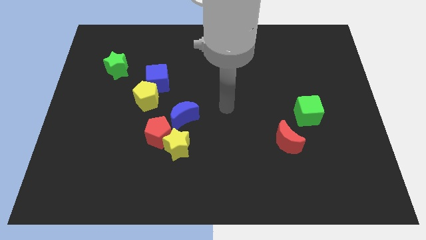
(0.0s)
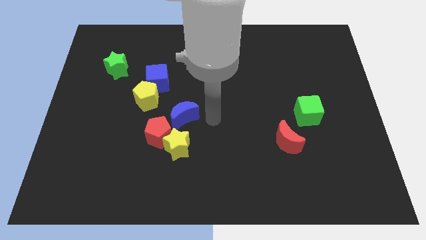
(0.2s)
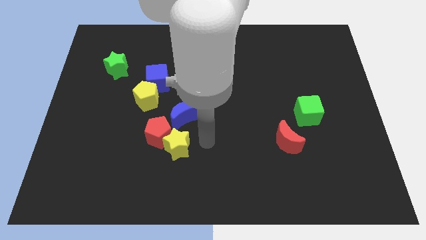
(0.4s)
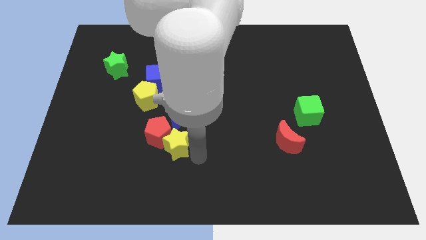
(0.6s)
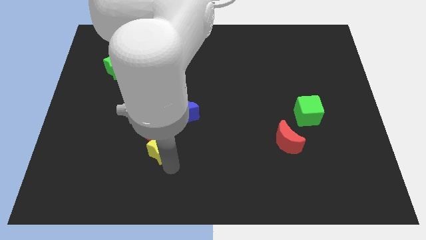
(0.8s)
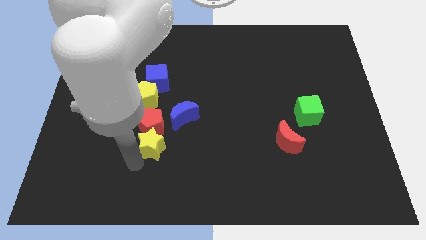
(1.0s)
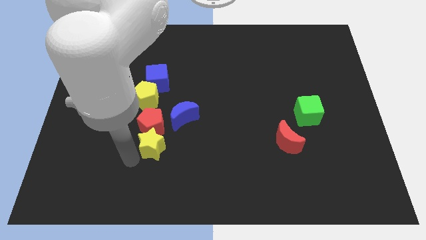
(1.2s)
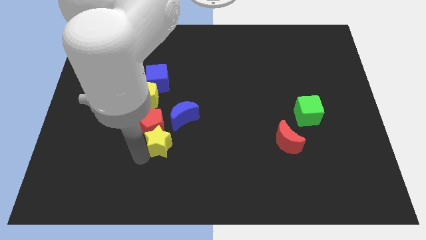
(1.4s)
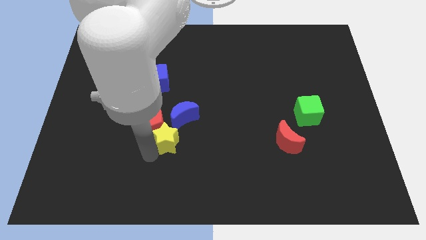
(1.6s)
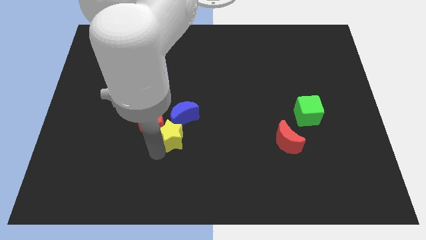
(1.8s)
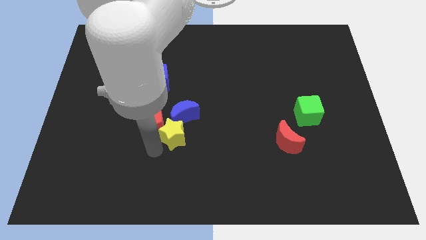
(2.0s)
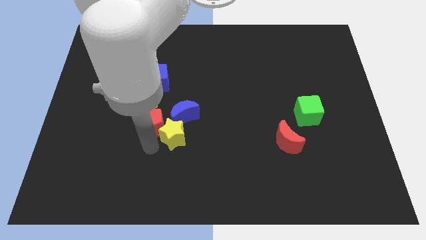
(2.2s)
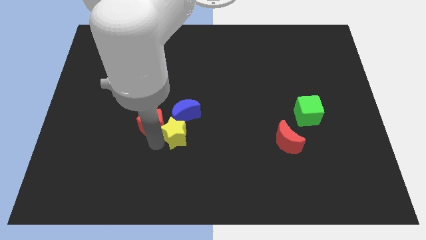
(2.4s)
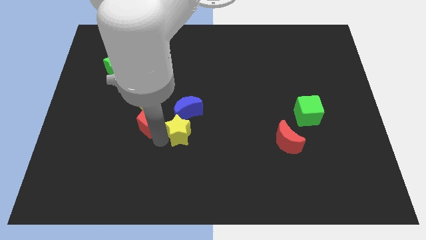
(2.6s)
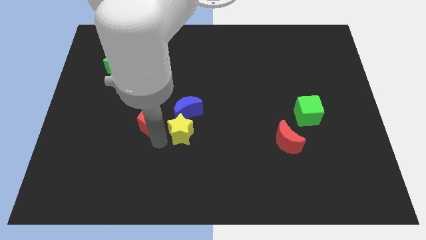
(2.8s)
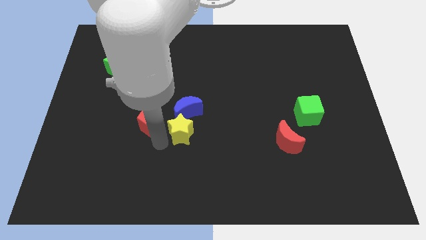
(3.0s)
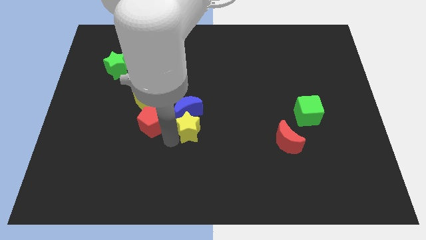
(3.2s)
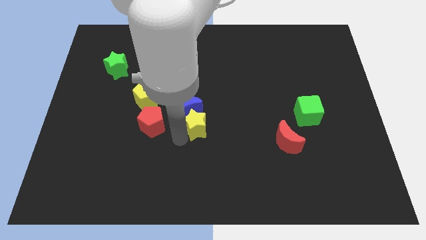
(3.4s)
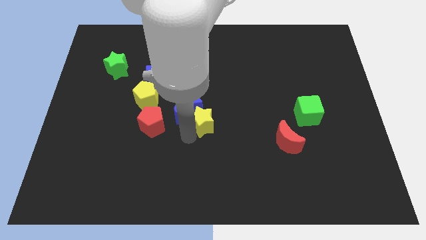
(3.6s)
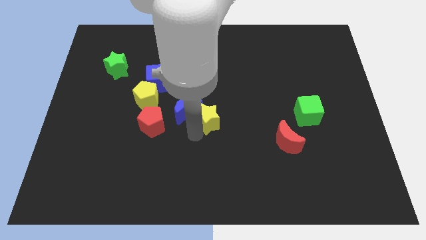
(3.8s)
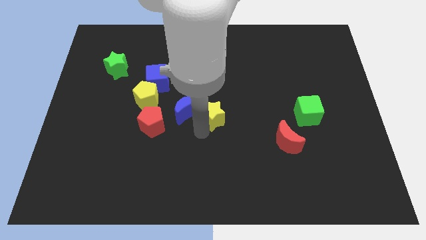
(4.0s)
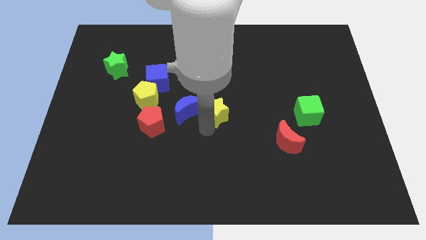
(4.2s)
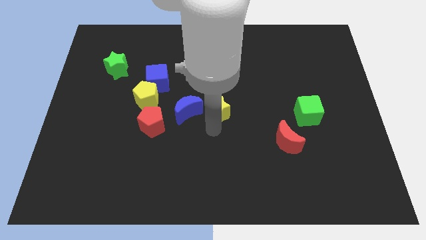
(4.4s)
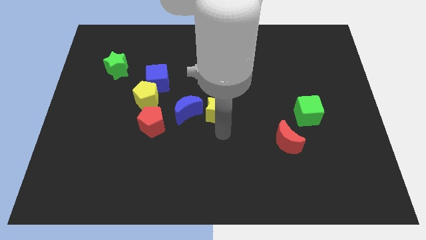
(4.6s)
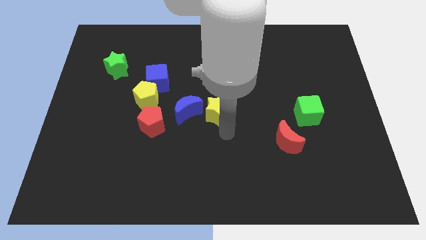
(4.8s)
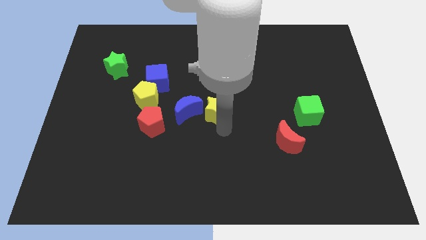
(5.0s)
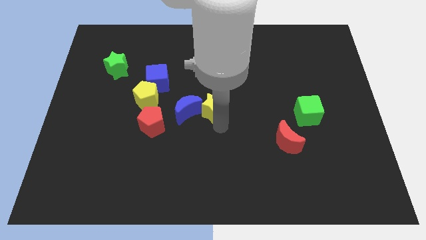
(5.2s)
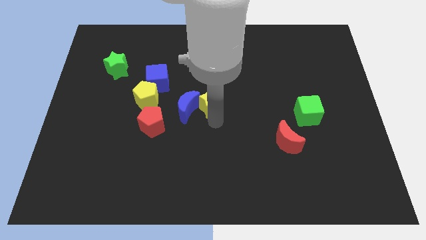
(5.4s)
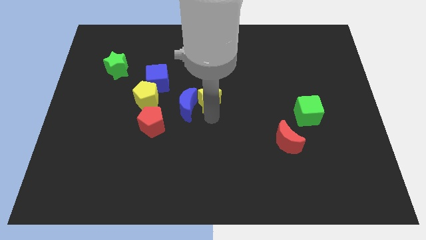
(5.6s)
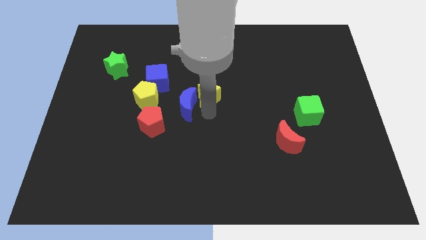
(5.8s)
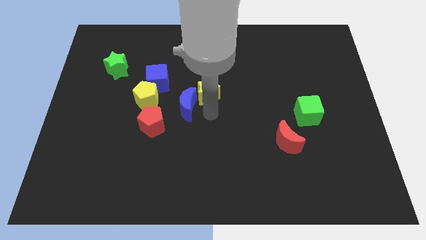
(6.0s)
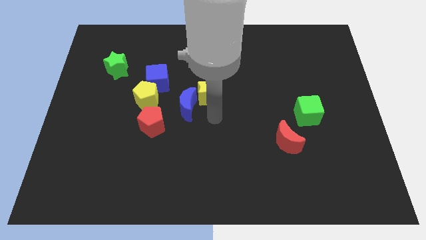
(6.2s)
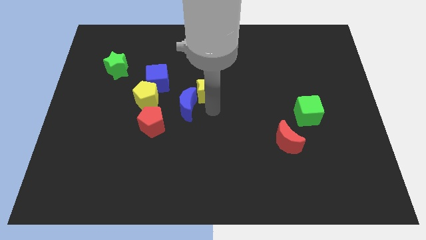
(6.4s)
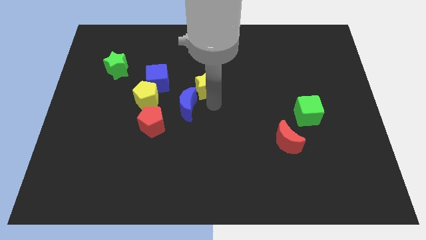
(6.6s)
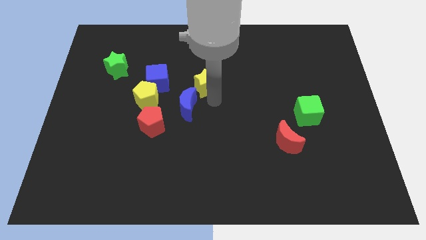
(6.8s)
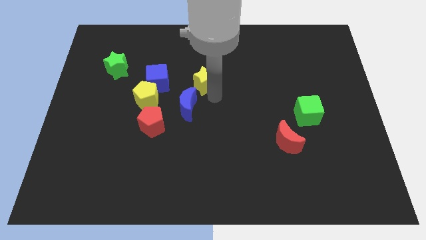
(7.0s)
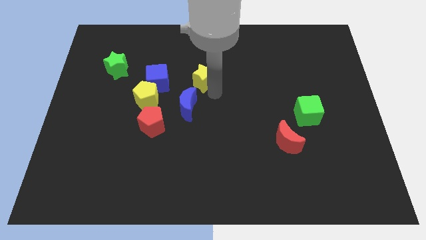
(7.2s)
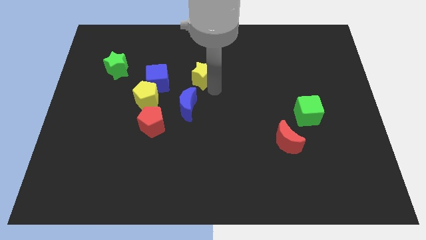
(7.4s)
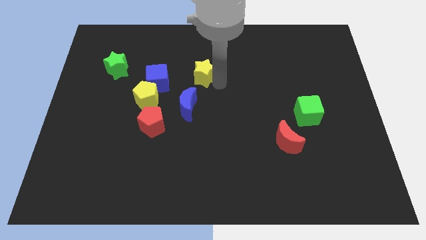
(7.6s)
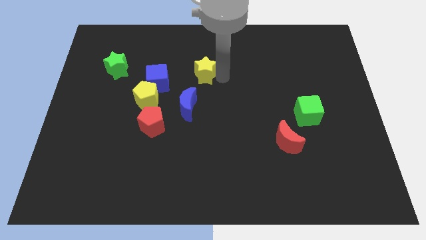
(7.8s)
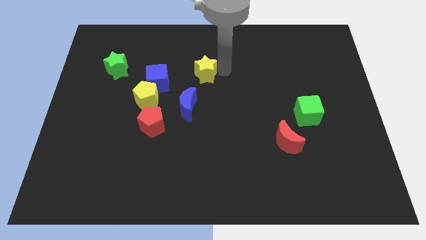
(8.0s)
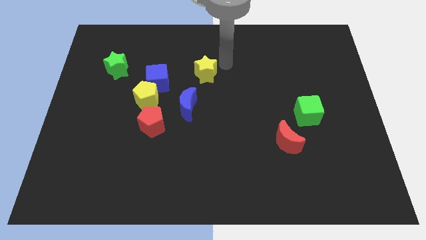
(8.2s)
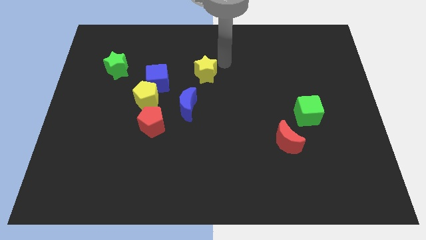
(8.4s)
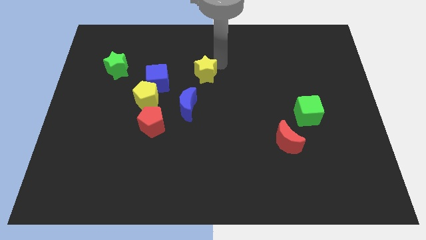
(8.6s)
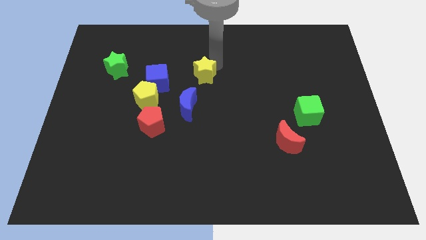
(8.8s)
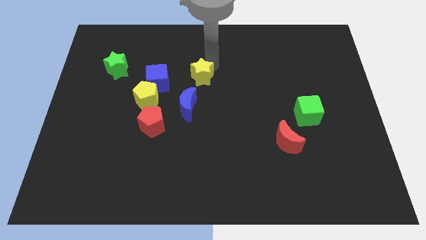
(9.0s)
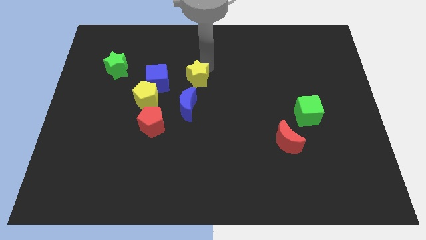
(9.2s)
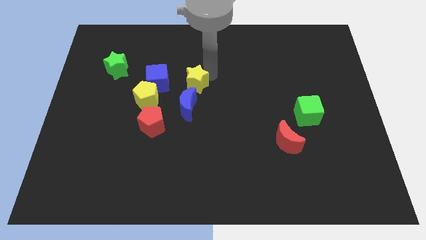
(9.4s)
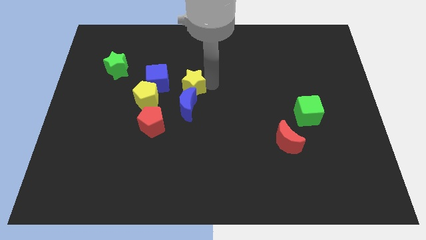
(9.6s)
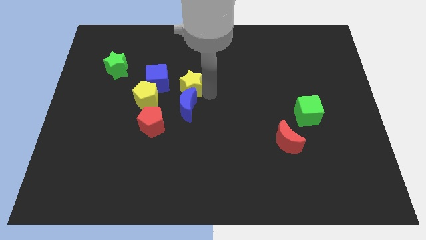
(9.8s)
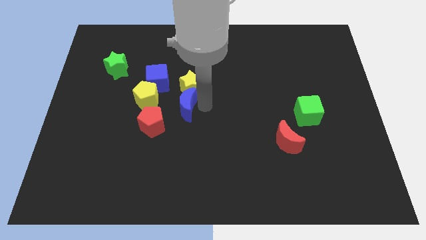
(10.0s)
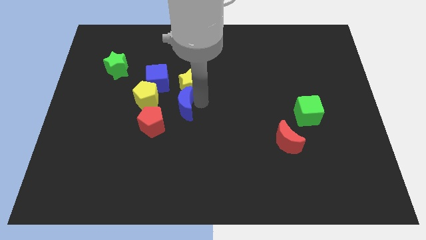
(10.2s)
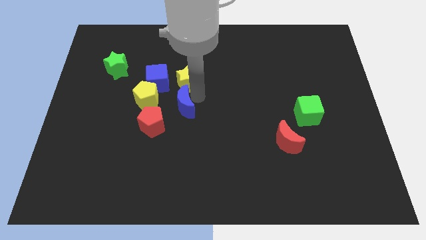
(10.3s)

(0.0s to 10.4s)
push the yellow star diagonally up and to the right of the yellow pentagon

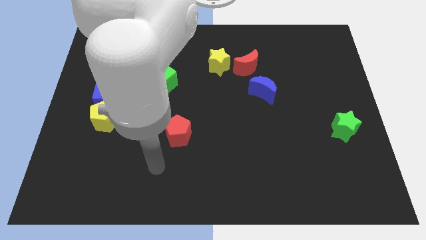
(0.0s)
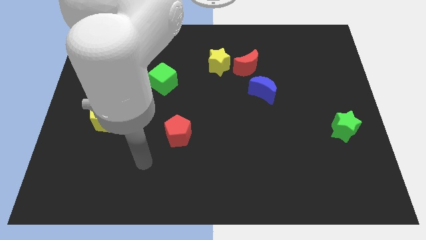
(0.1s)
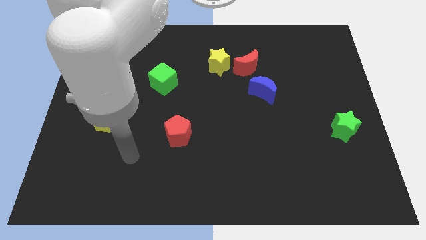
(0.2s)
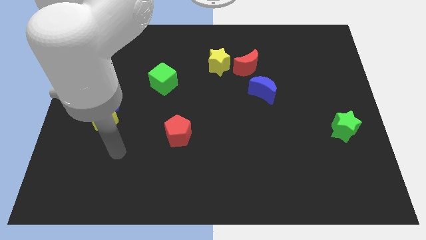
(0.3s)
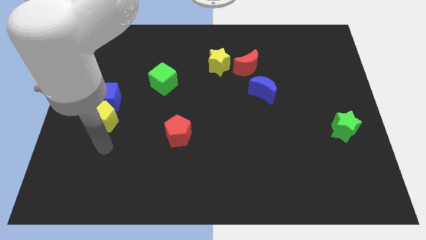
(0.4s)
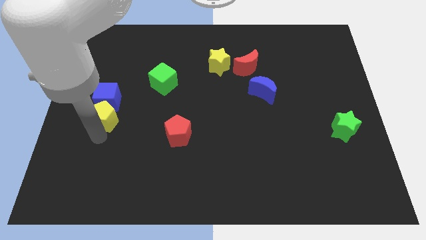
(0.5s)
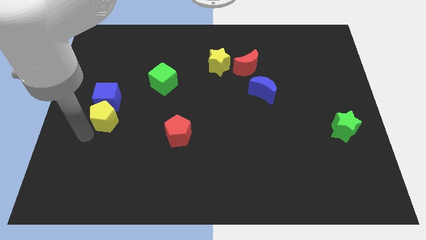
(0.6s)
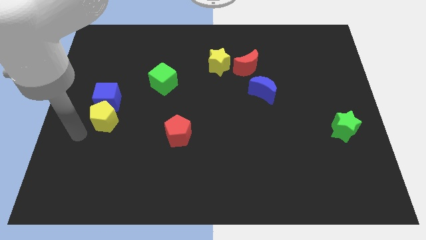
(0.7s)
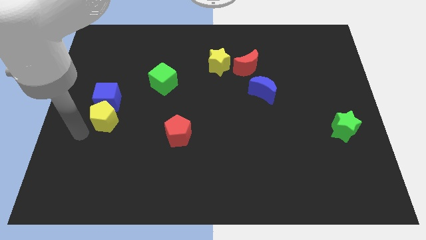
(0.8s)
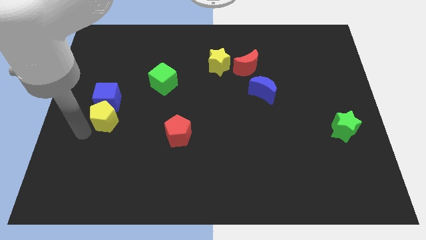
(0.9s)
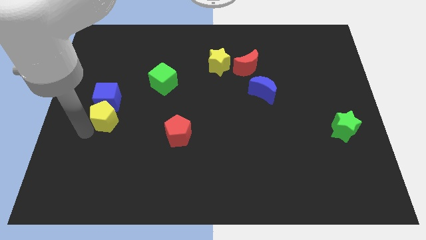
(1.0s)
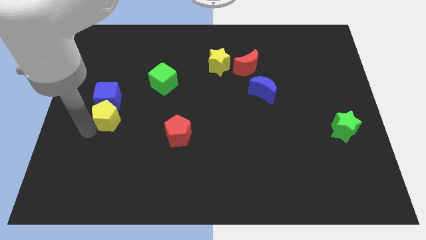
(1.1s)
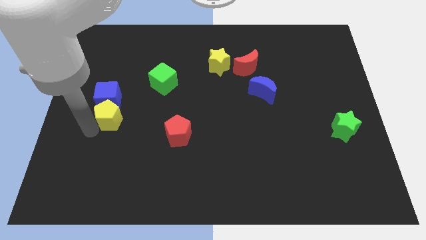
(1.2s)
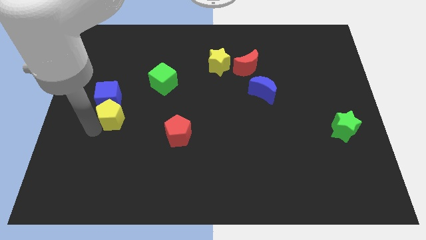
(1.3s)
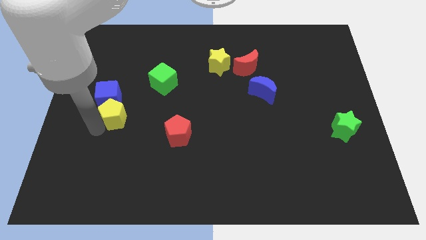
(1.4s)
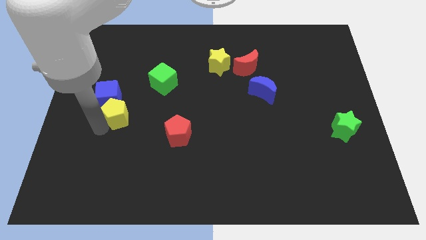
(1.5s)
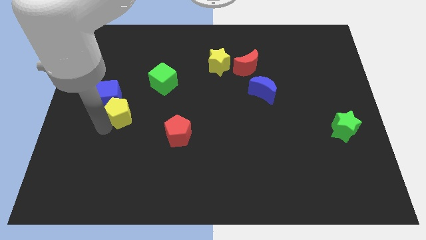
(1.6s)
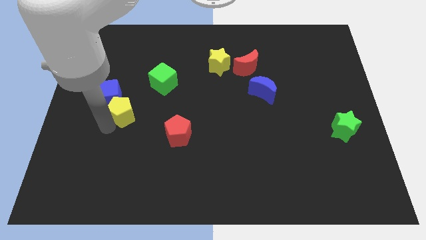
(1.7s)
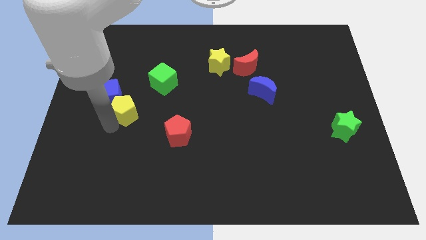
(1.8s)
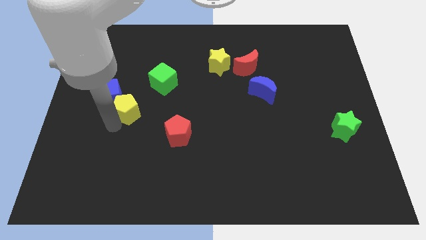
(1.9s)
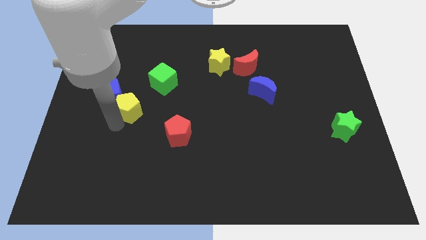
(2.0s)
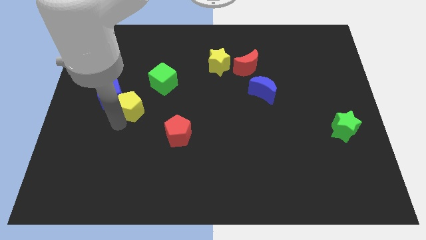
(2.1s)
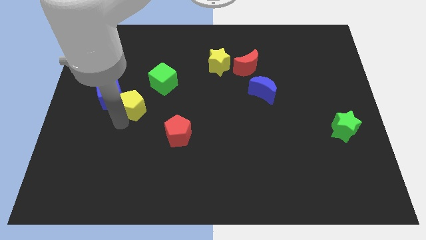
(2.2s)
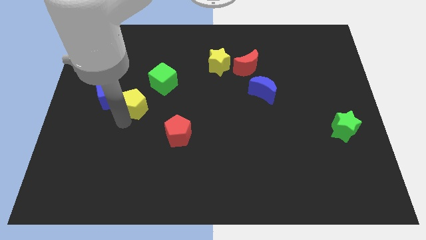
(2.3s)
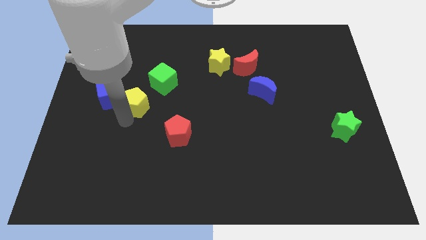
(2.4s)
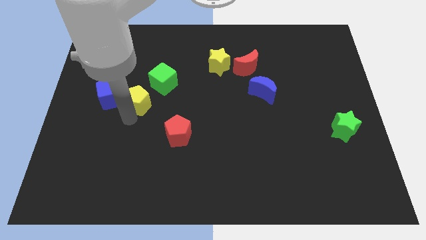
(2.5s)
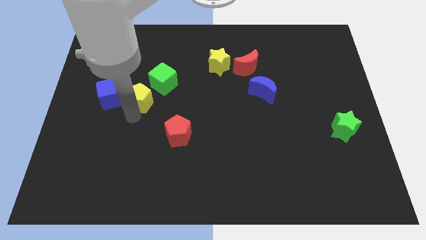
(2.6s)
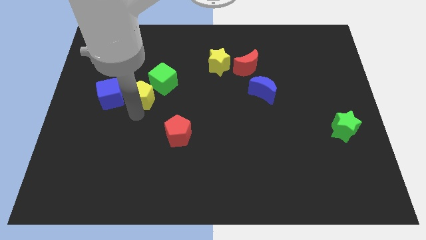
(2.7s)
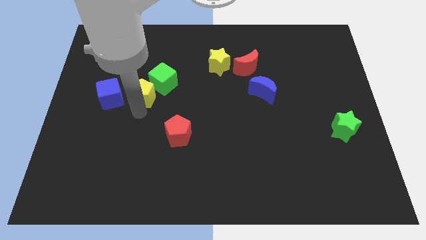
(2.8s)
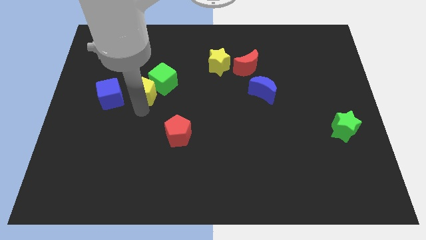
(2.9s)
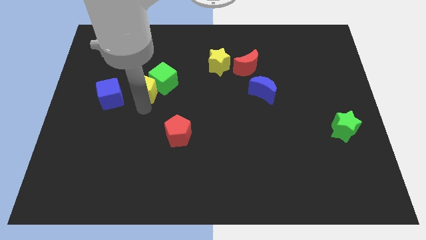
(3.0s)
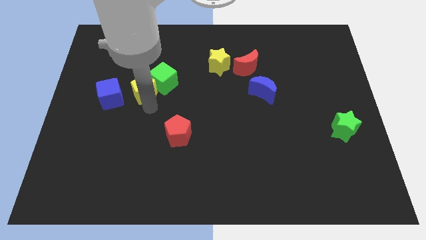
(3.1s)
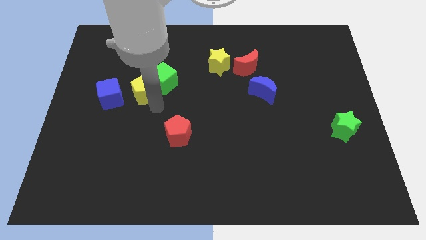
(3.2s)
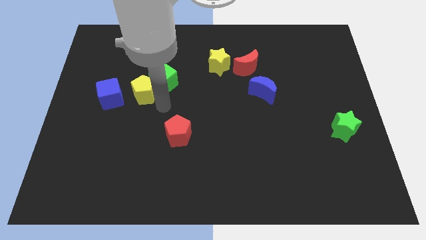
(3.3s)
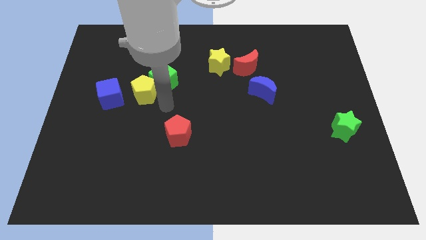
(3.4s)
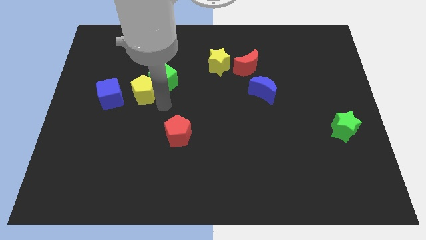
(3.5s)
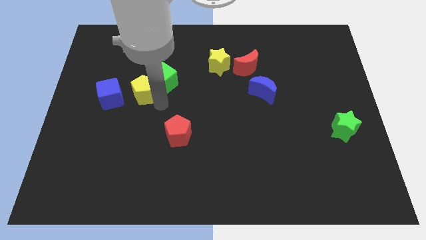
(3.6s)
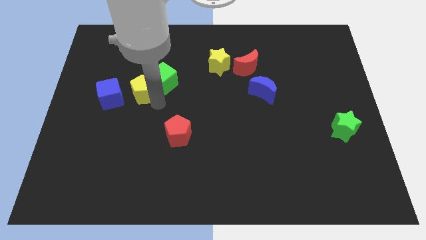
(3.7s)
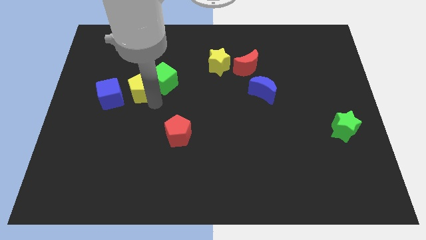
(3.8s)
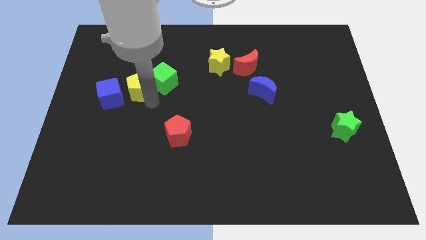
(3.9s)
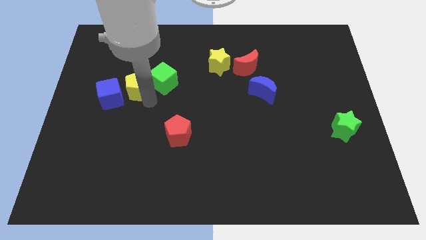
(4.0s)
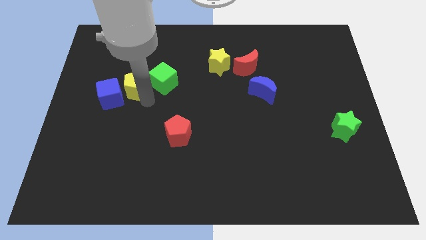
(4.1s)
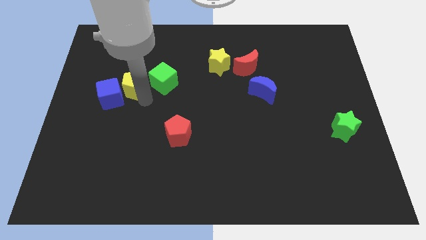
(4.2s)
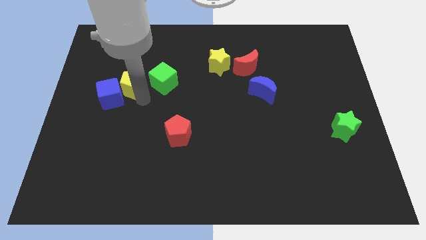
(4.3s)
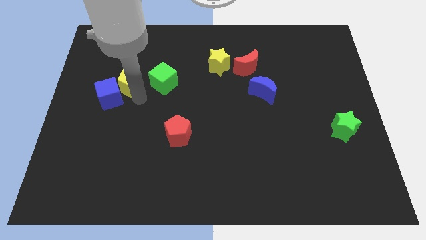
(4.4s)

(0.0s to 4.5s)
move the yellow pentagon above the blue cube
